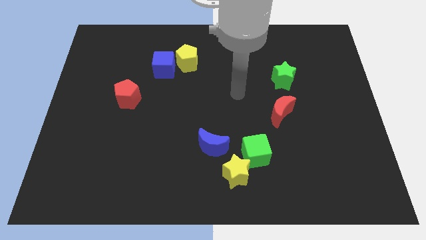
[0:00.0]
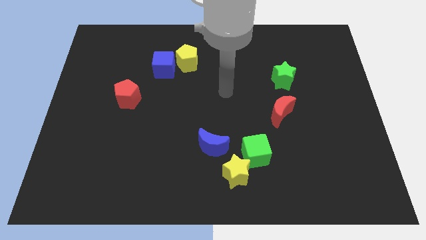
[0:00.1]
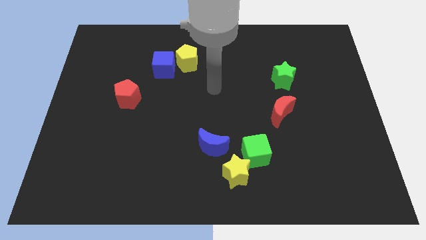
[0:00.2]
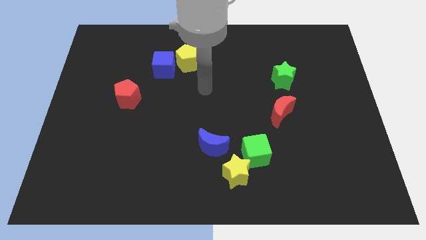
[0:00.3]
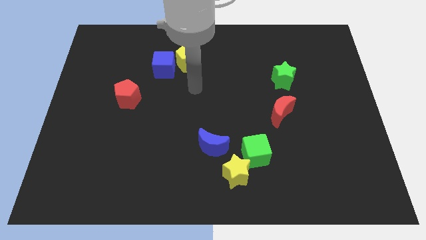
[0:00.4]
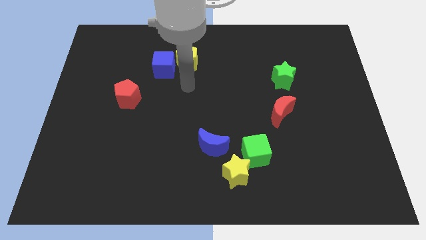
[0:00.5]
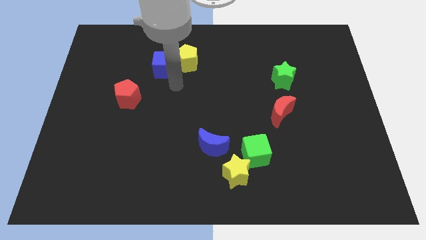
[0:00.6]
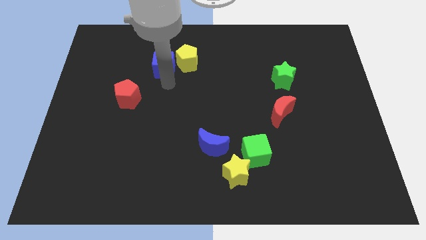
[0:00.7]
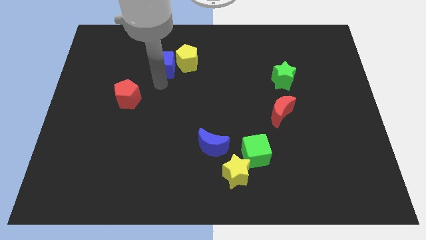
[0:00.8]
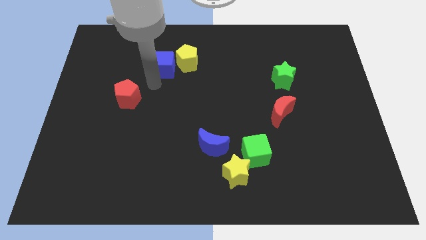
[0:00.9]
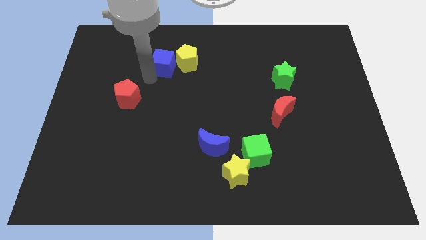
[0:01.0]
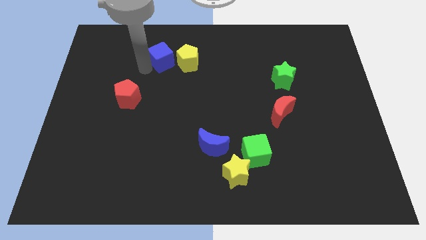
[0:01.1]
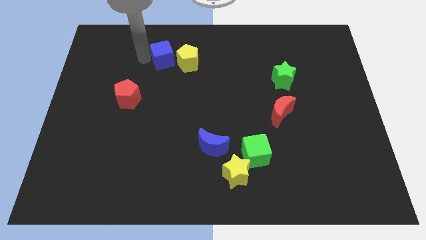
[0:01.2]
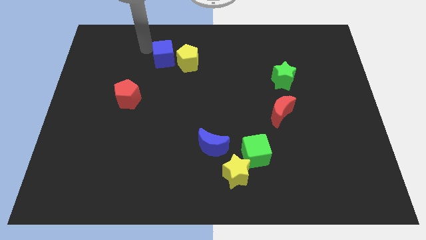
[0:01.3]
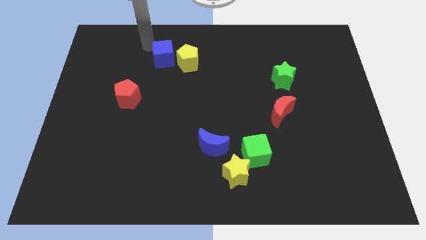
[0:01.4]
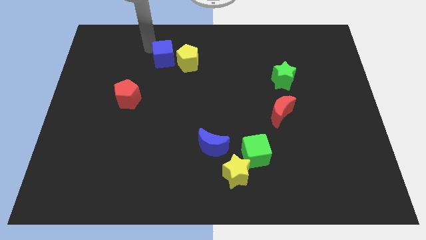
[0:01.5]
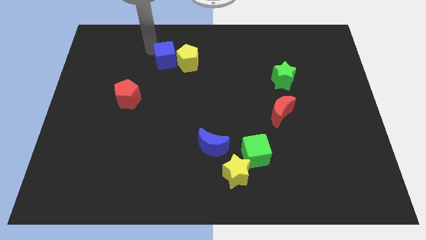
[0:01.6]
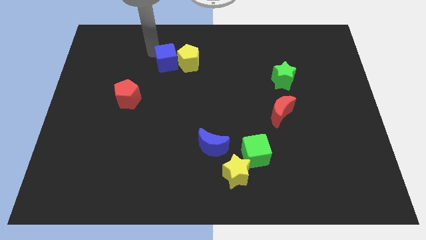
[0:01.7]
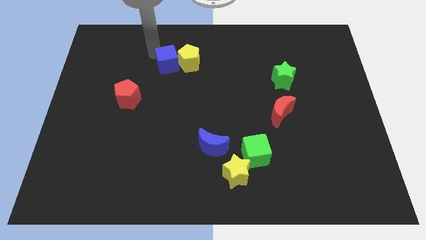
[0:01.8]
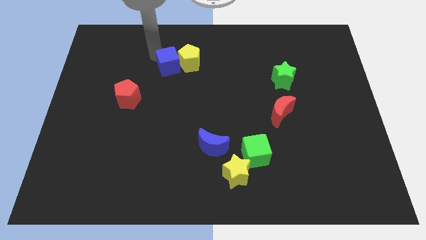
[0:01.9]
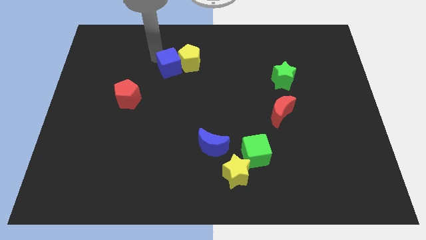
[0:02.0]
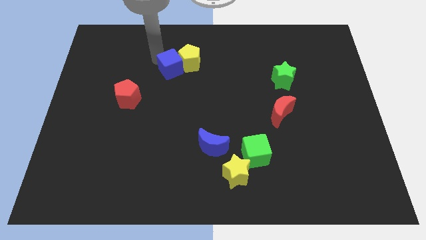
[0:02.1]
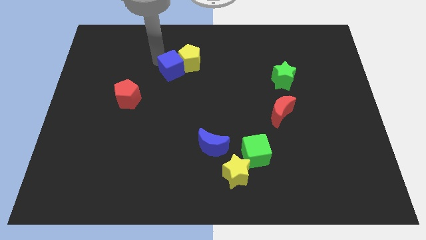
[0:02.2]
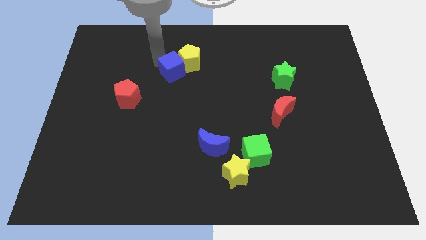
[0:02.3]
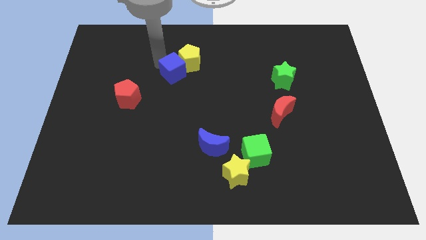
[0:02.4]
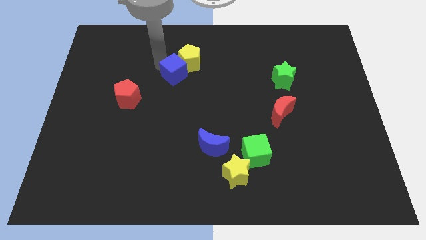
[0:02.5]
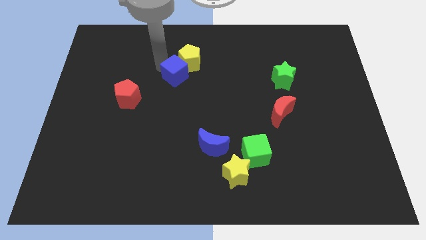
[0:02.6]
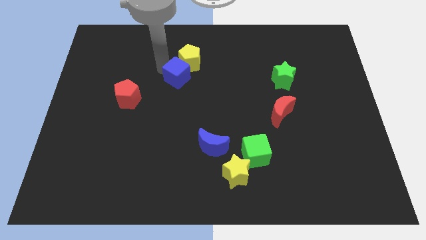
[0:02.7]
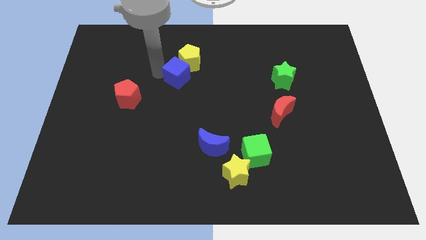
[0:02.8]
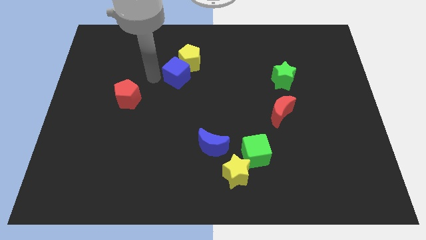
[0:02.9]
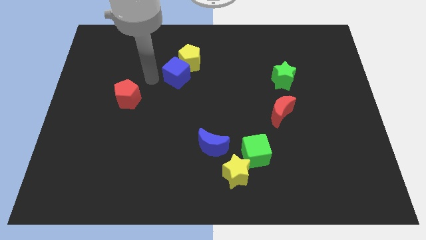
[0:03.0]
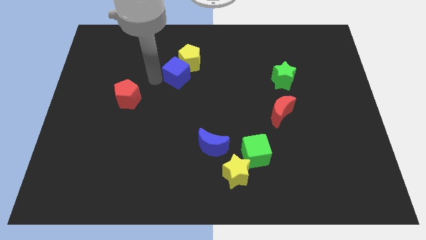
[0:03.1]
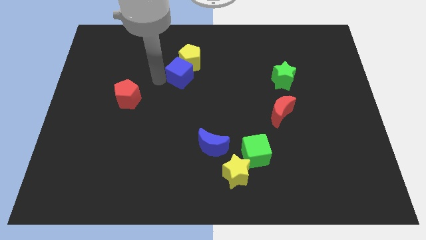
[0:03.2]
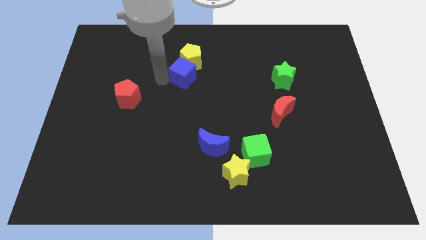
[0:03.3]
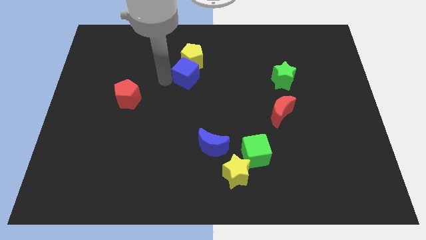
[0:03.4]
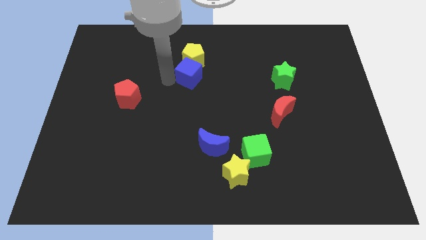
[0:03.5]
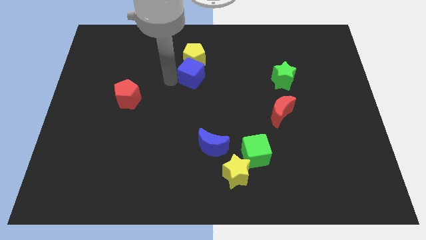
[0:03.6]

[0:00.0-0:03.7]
move the blue cube a little right

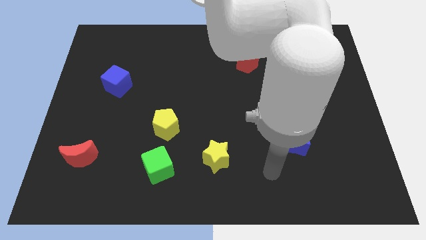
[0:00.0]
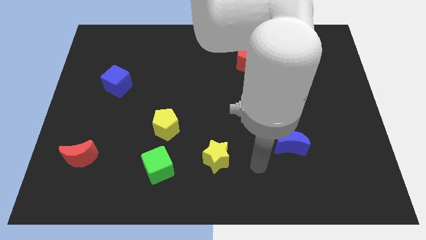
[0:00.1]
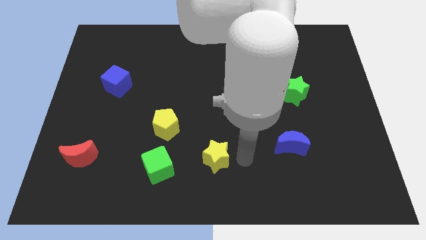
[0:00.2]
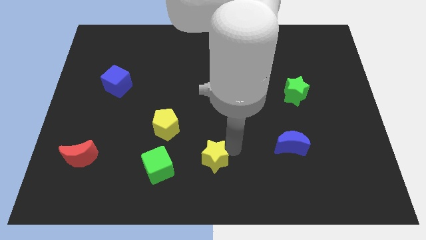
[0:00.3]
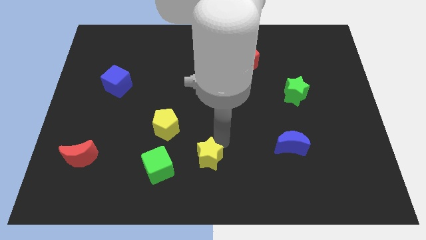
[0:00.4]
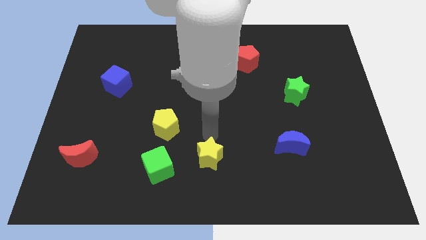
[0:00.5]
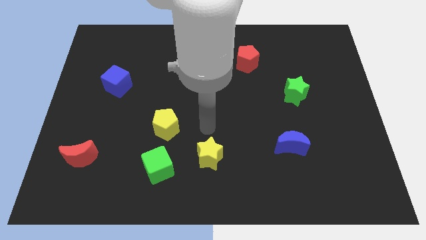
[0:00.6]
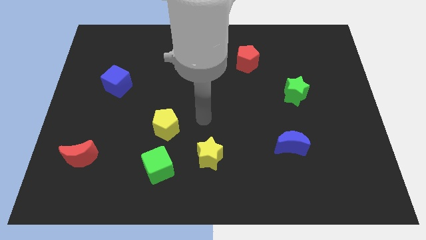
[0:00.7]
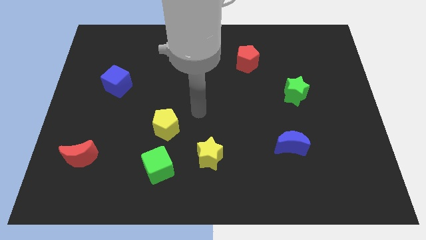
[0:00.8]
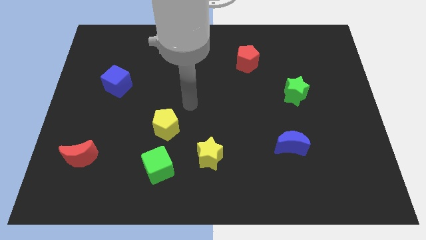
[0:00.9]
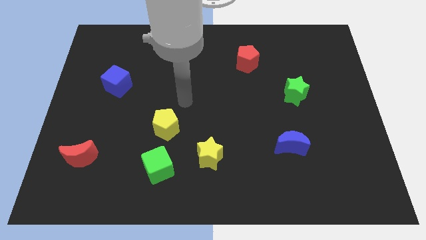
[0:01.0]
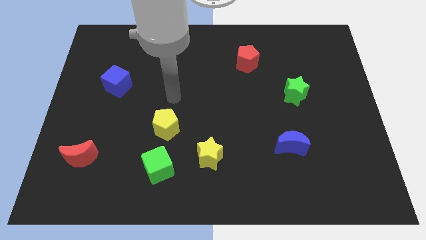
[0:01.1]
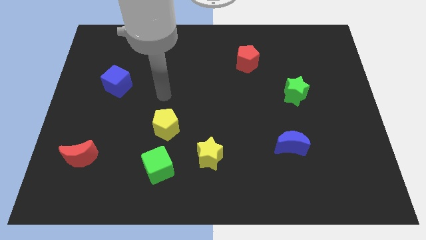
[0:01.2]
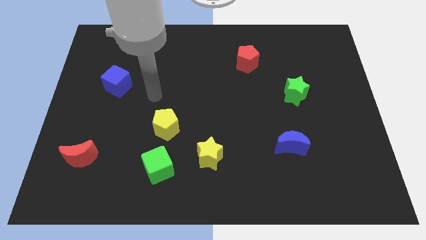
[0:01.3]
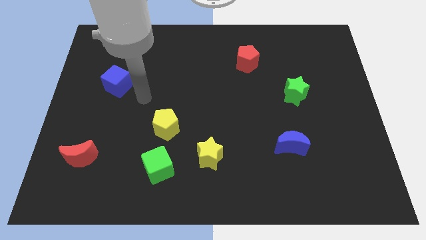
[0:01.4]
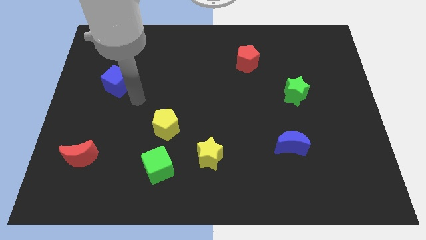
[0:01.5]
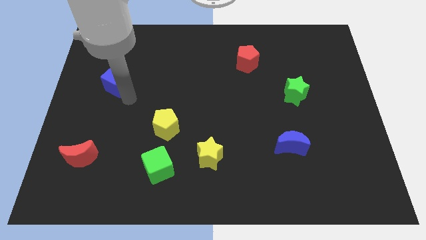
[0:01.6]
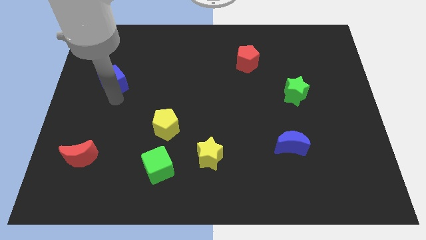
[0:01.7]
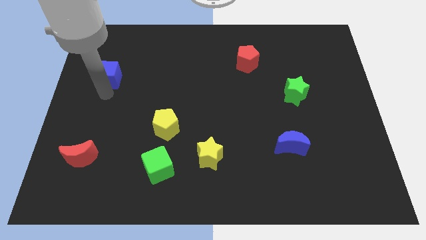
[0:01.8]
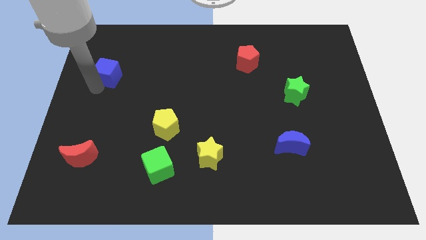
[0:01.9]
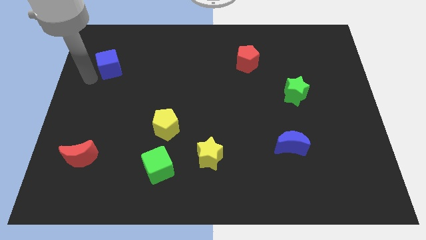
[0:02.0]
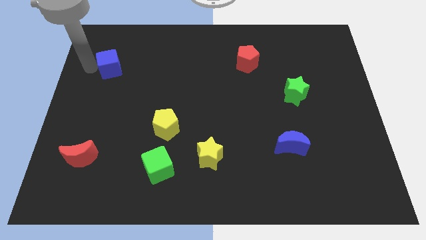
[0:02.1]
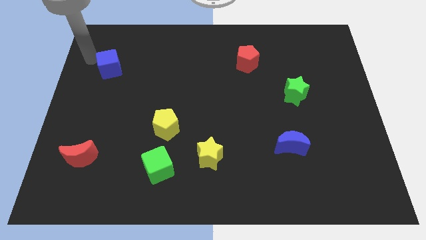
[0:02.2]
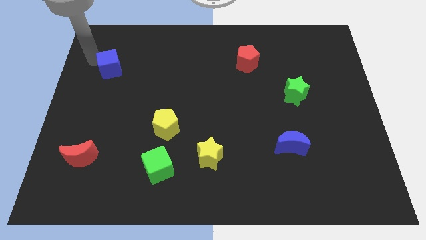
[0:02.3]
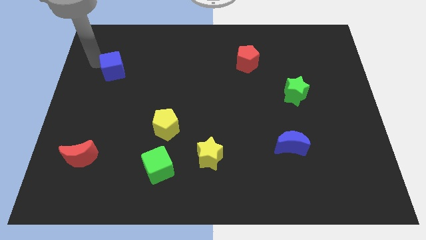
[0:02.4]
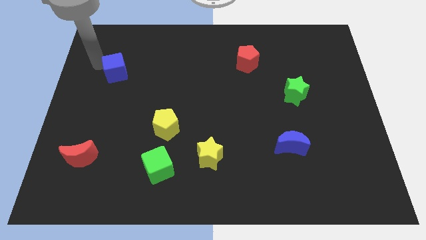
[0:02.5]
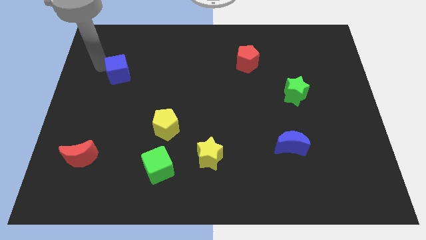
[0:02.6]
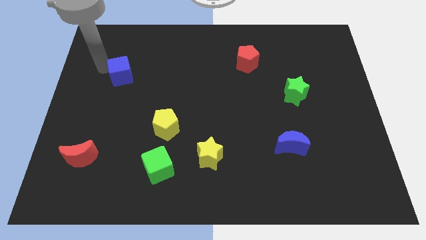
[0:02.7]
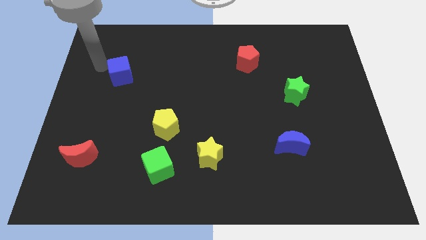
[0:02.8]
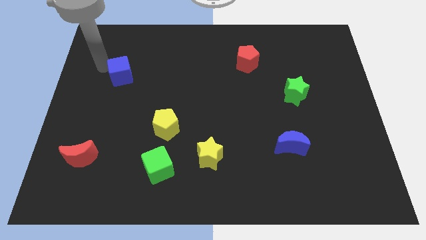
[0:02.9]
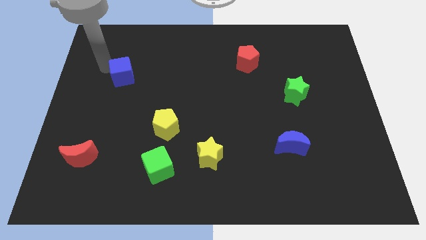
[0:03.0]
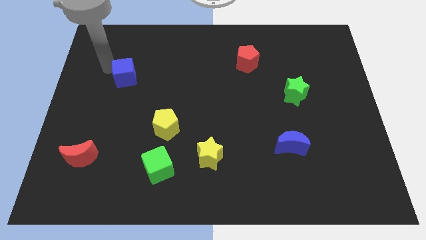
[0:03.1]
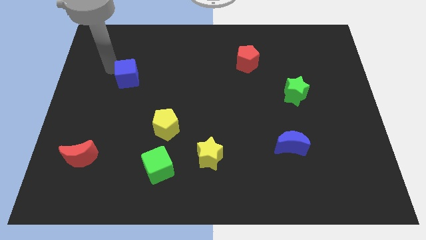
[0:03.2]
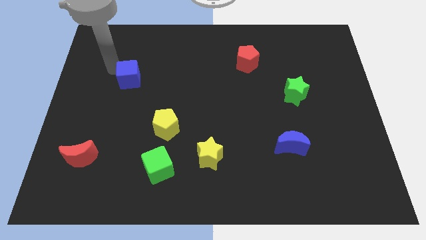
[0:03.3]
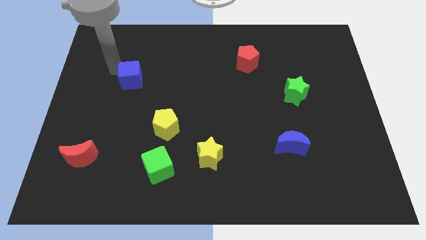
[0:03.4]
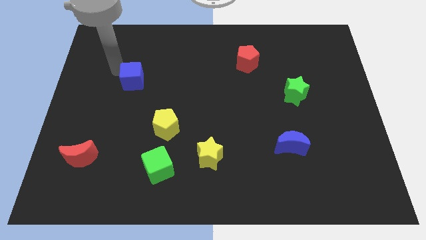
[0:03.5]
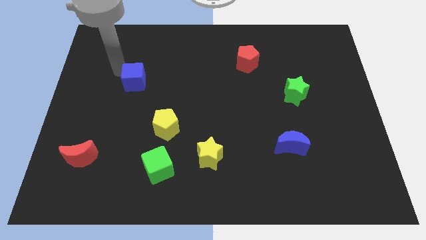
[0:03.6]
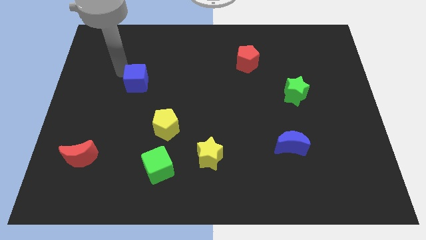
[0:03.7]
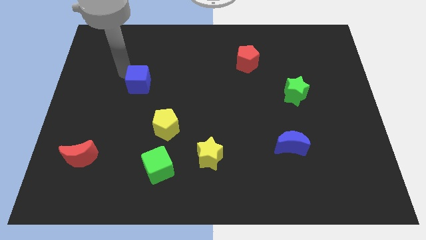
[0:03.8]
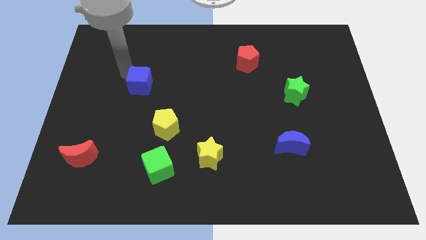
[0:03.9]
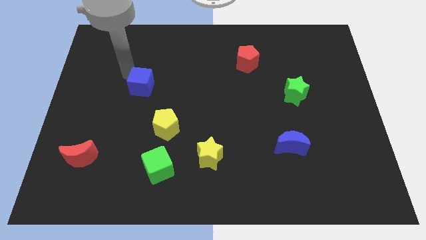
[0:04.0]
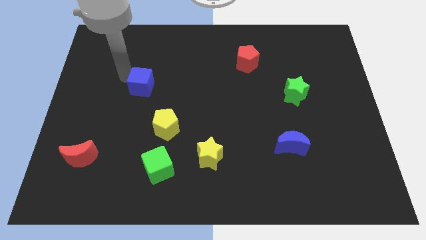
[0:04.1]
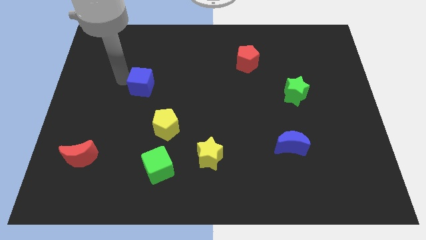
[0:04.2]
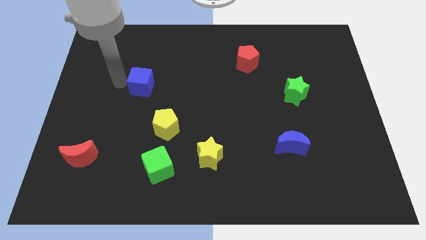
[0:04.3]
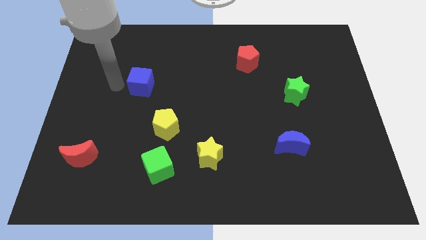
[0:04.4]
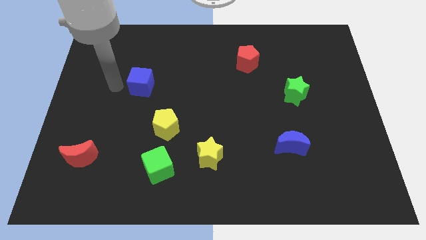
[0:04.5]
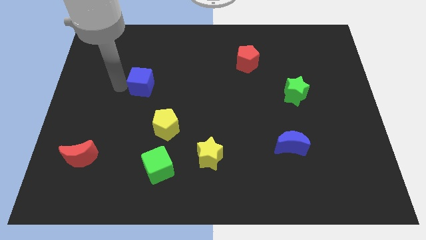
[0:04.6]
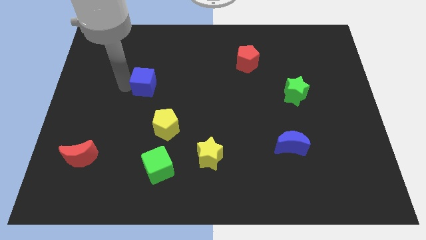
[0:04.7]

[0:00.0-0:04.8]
slightly push the blue cube to the right

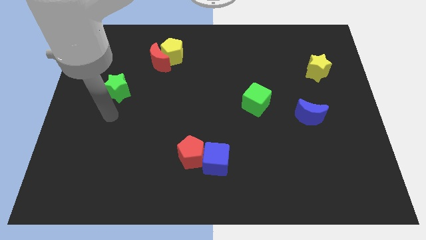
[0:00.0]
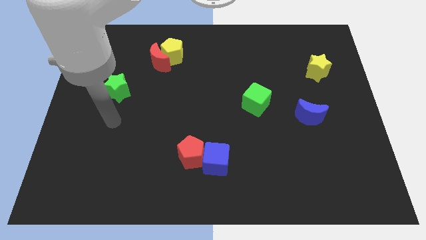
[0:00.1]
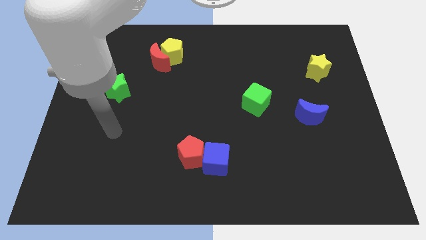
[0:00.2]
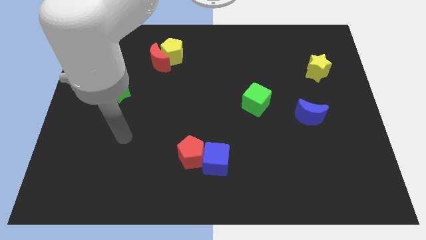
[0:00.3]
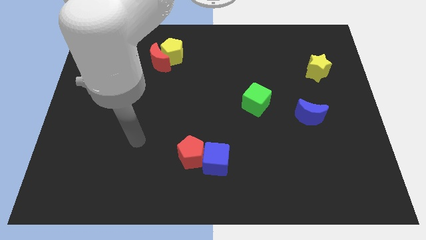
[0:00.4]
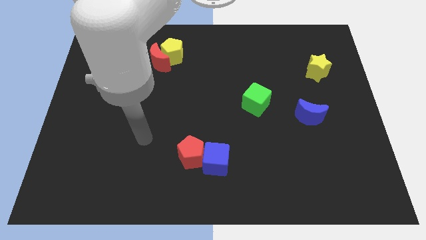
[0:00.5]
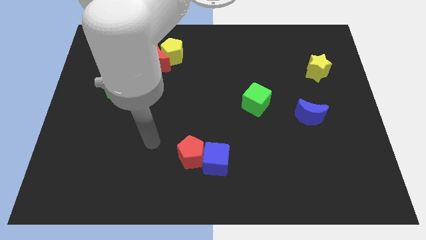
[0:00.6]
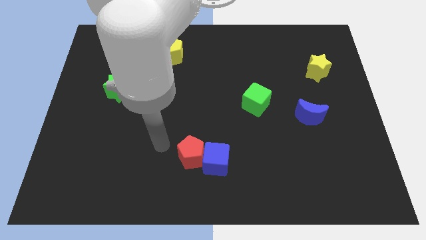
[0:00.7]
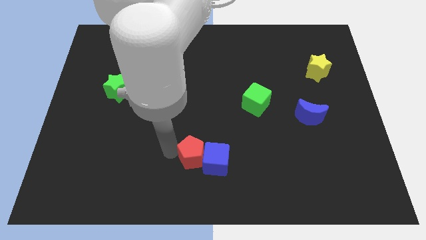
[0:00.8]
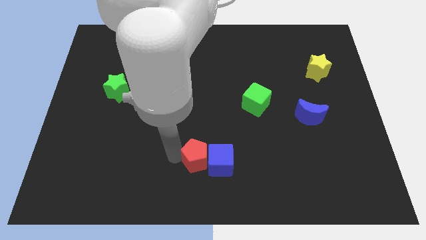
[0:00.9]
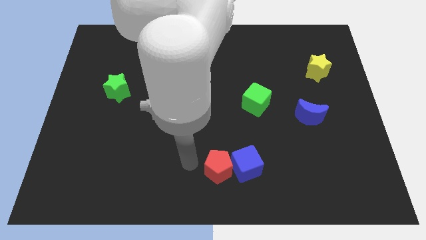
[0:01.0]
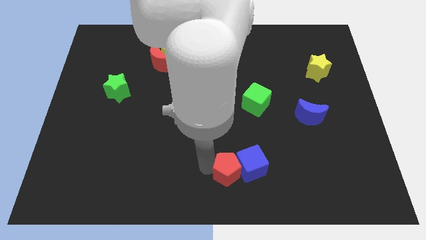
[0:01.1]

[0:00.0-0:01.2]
slightly slide the blue cube to the right
